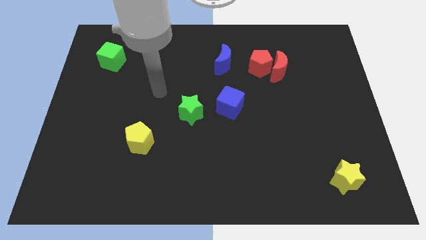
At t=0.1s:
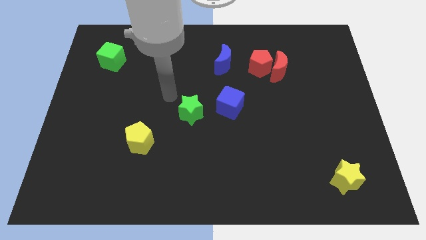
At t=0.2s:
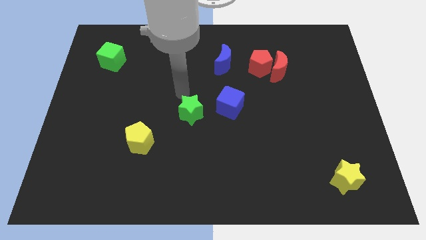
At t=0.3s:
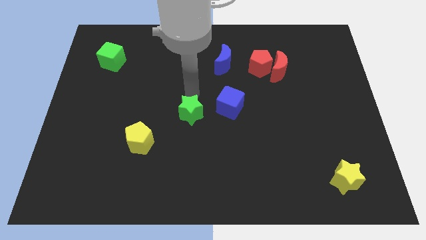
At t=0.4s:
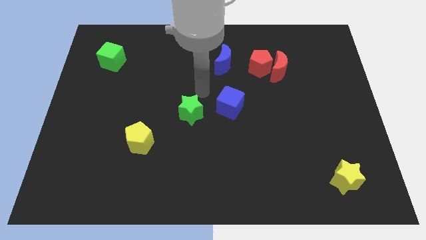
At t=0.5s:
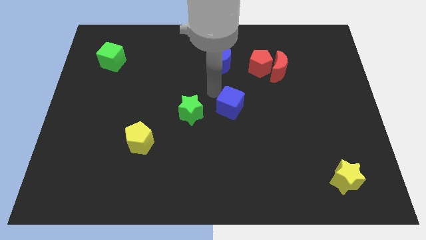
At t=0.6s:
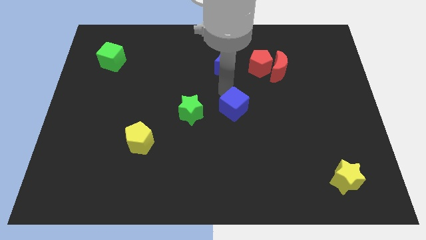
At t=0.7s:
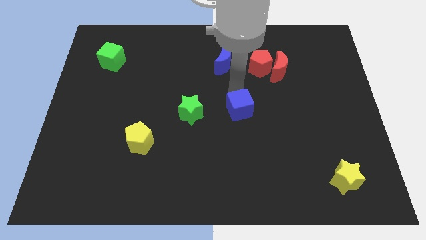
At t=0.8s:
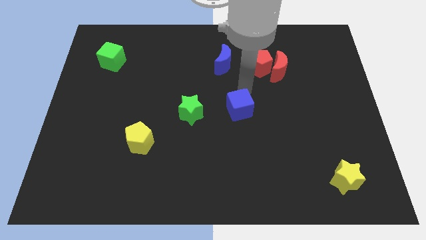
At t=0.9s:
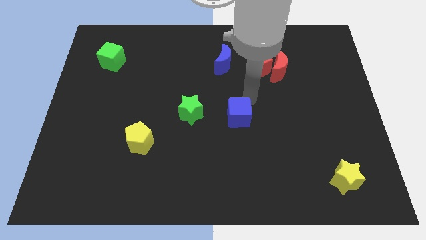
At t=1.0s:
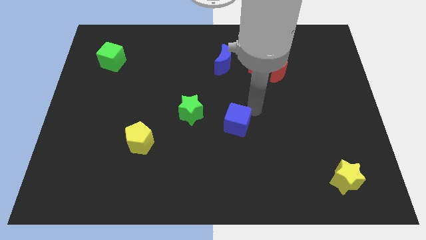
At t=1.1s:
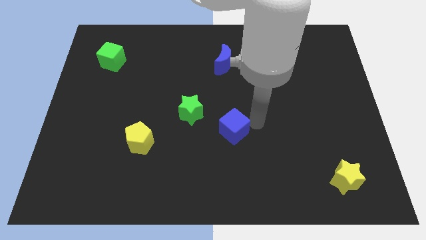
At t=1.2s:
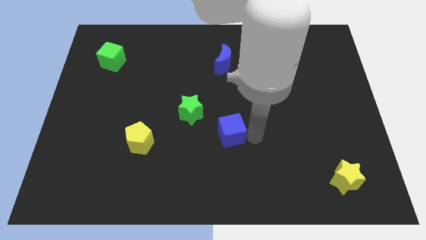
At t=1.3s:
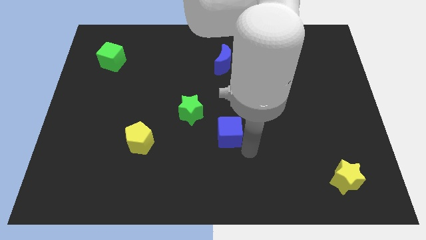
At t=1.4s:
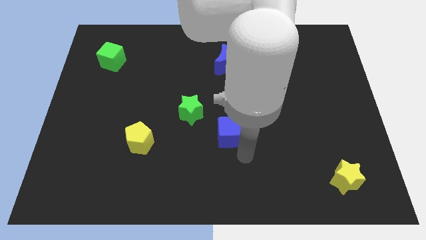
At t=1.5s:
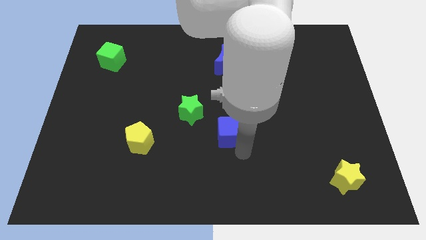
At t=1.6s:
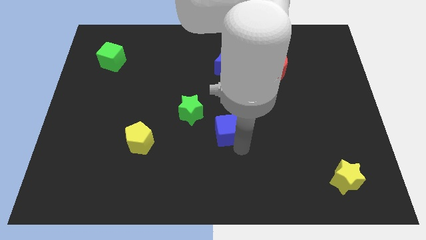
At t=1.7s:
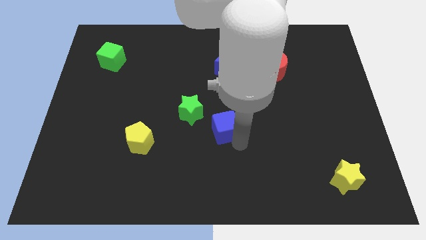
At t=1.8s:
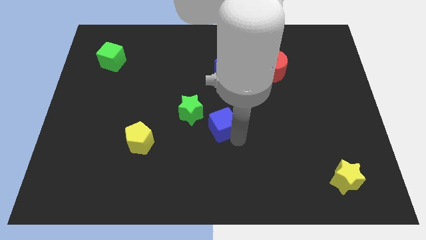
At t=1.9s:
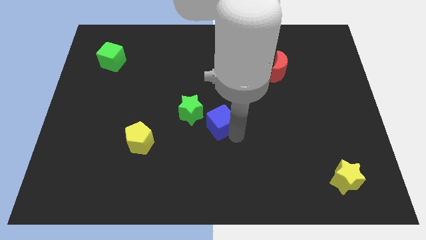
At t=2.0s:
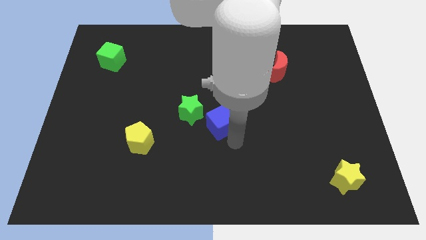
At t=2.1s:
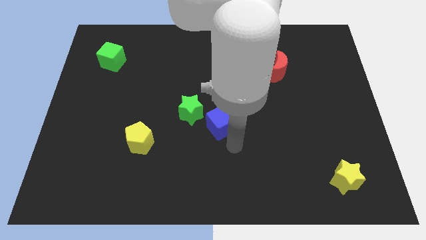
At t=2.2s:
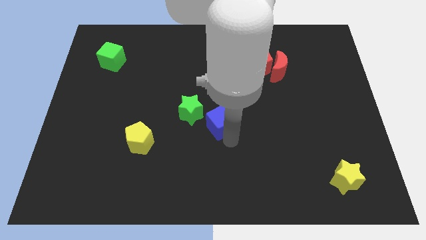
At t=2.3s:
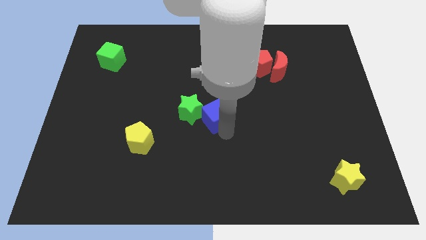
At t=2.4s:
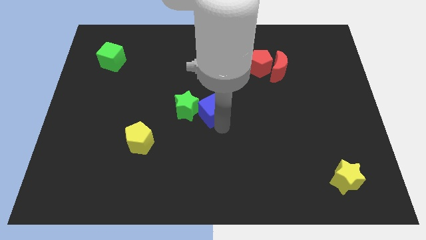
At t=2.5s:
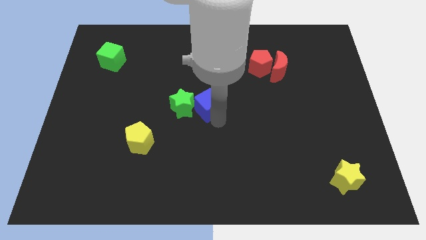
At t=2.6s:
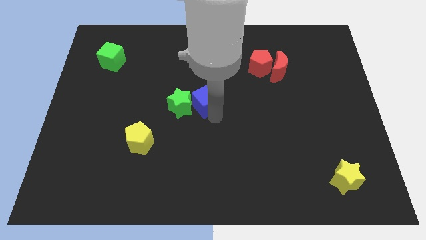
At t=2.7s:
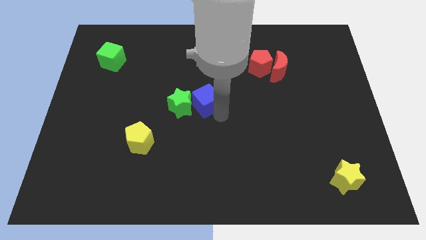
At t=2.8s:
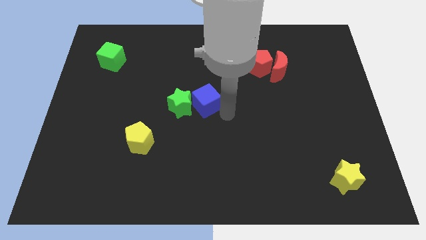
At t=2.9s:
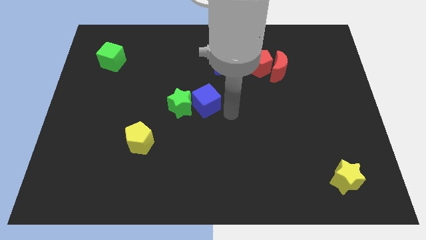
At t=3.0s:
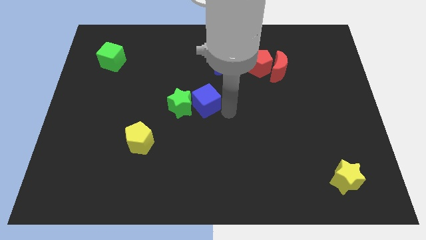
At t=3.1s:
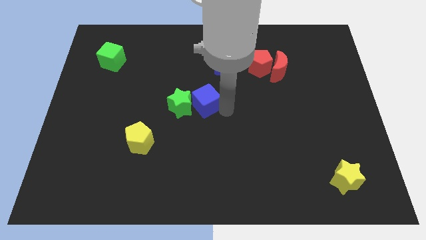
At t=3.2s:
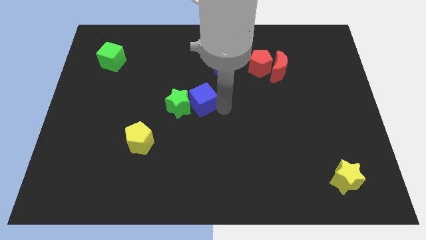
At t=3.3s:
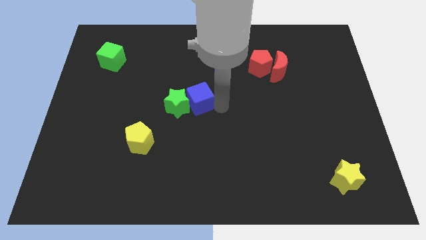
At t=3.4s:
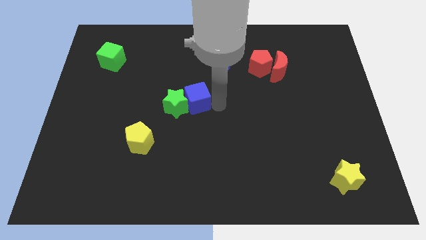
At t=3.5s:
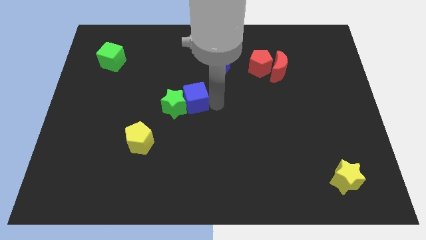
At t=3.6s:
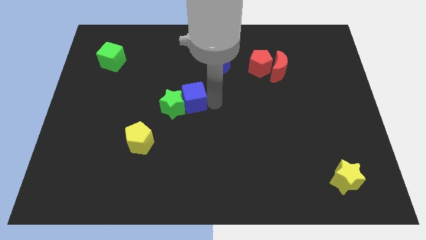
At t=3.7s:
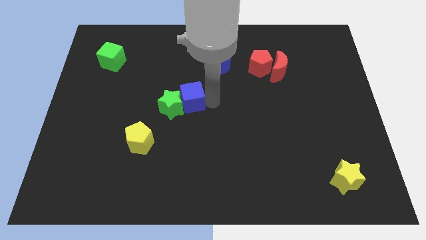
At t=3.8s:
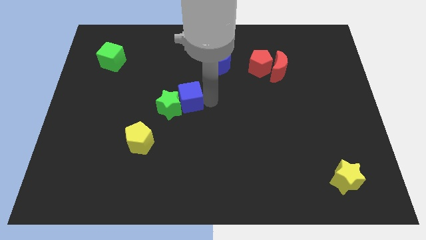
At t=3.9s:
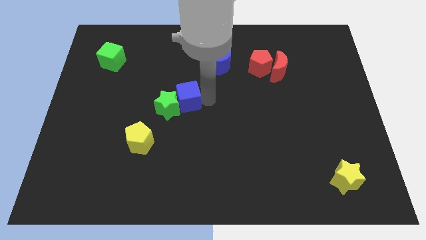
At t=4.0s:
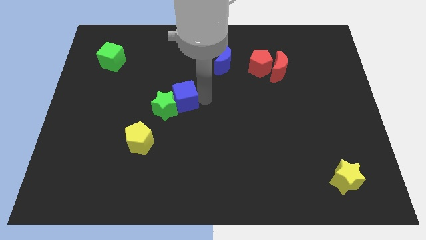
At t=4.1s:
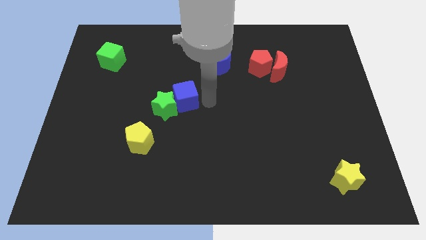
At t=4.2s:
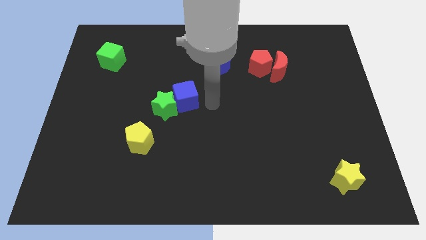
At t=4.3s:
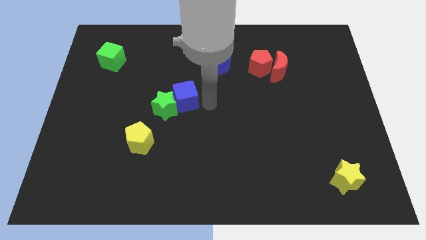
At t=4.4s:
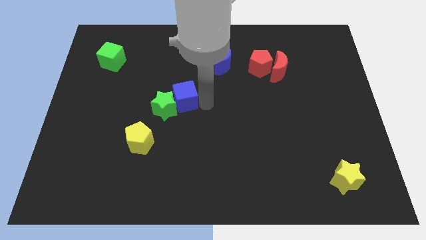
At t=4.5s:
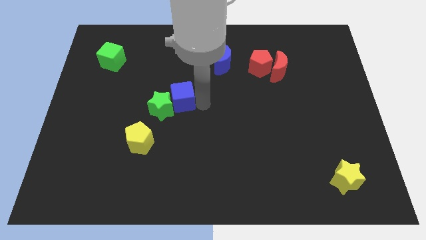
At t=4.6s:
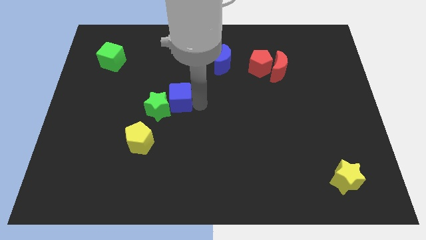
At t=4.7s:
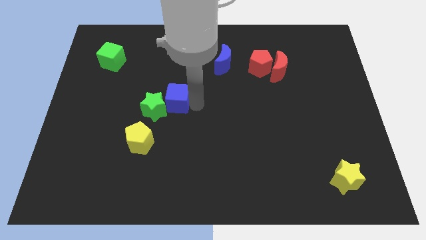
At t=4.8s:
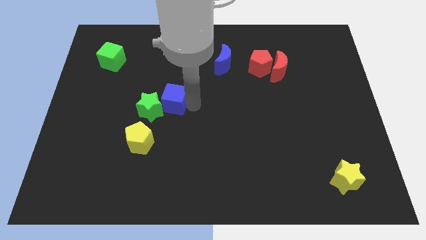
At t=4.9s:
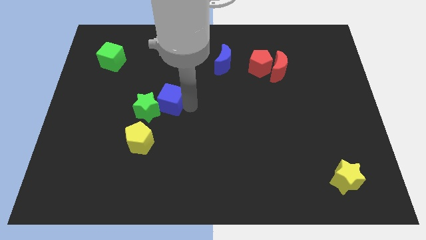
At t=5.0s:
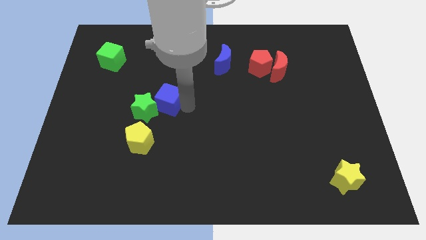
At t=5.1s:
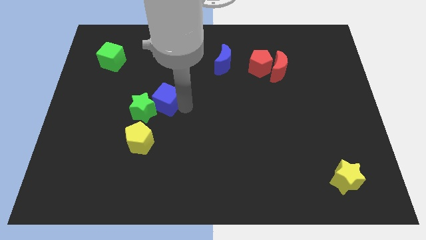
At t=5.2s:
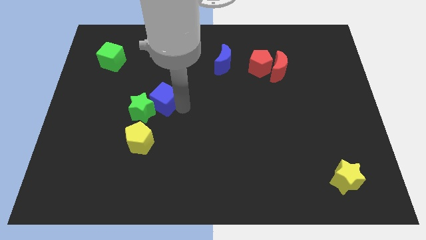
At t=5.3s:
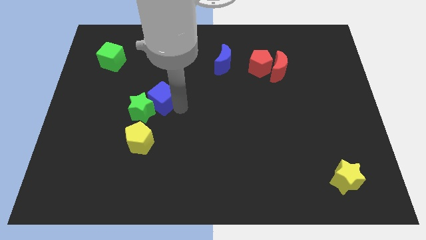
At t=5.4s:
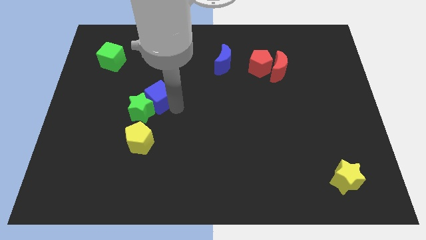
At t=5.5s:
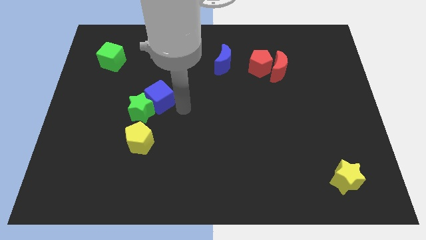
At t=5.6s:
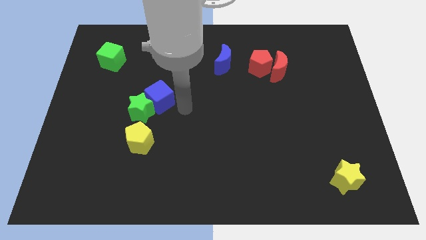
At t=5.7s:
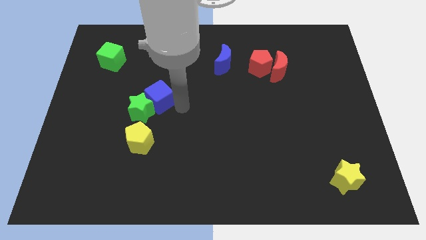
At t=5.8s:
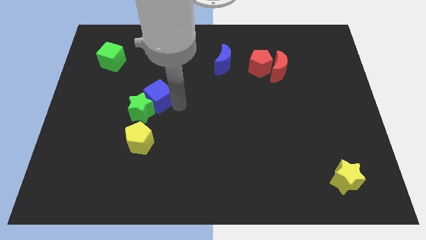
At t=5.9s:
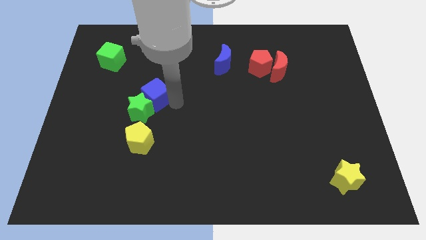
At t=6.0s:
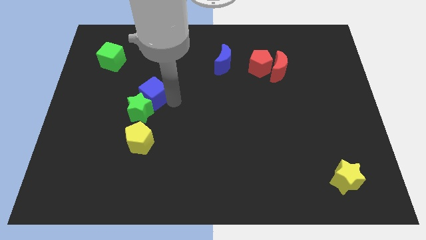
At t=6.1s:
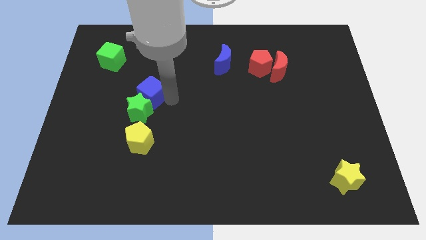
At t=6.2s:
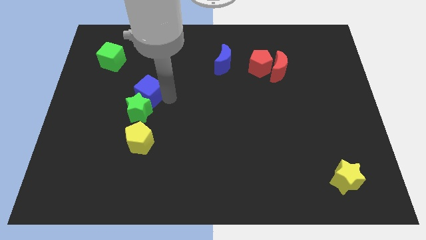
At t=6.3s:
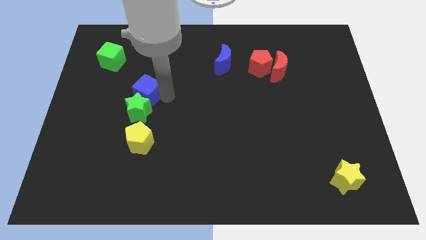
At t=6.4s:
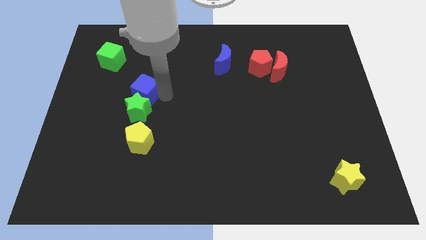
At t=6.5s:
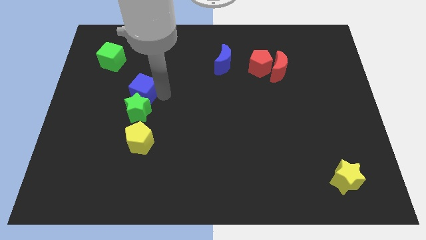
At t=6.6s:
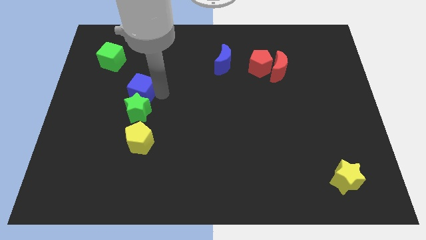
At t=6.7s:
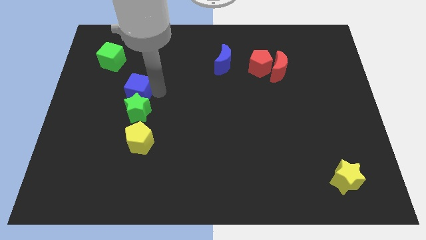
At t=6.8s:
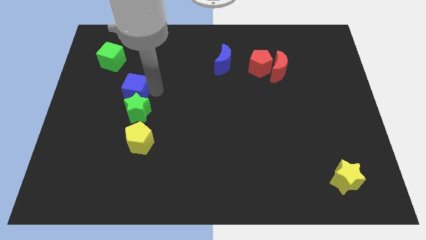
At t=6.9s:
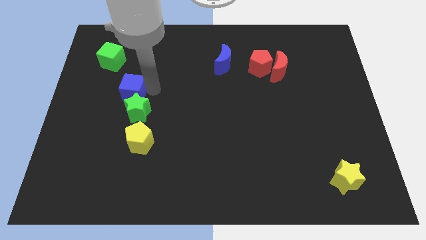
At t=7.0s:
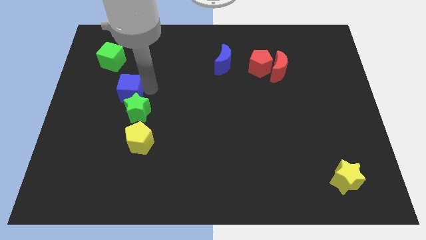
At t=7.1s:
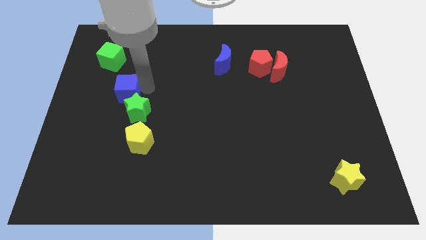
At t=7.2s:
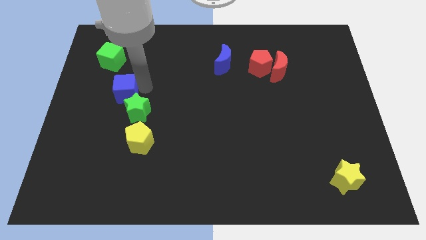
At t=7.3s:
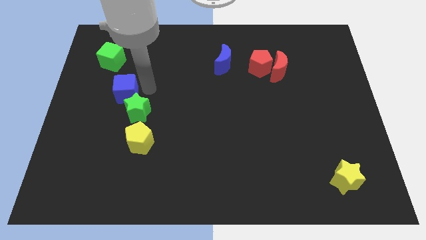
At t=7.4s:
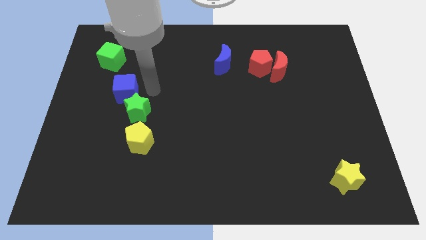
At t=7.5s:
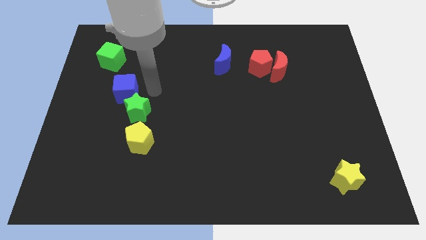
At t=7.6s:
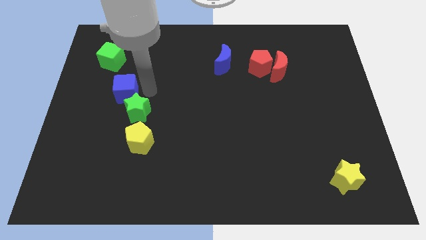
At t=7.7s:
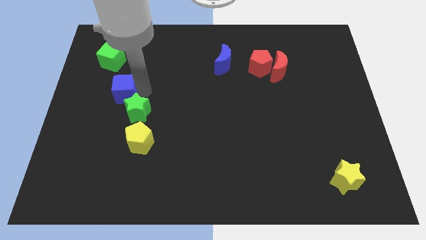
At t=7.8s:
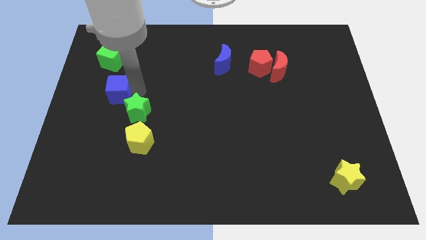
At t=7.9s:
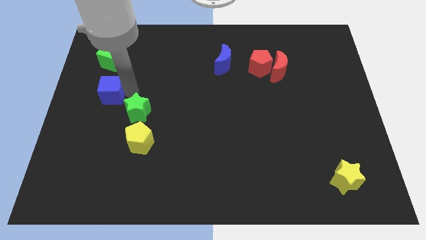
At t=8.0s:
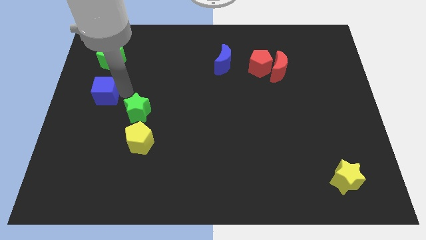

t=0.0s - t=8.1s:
put the blue cube to the left side
